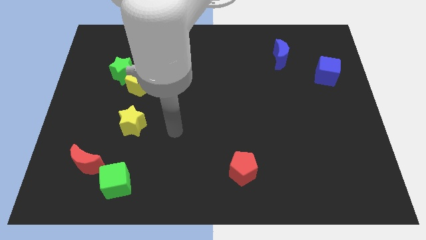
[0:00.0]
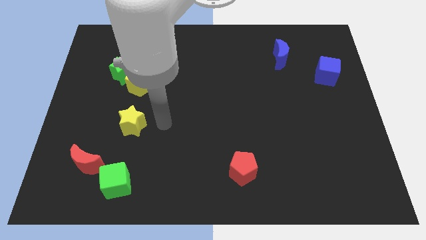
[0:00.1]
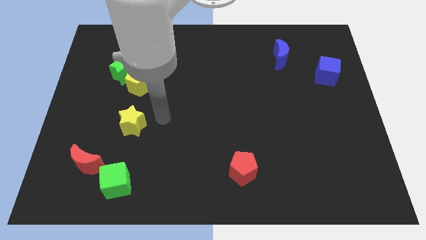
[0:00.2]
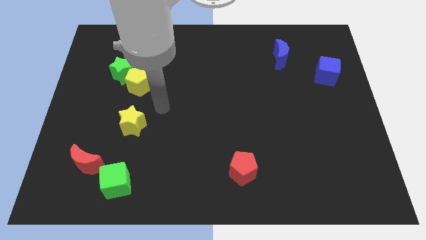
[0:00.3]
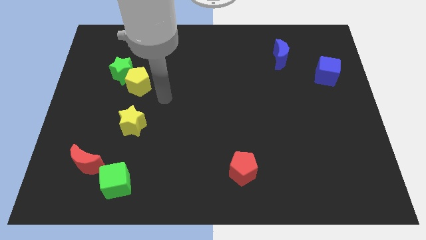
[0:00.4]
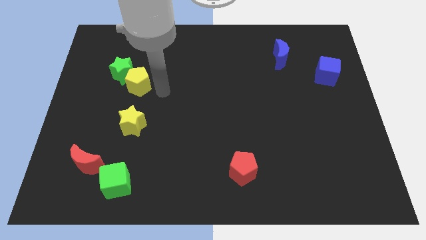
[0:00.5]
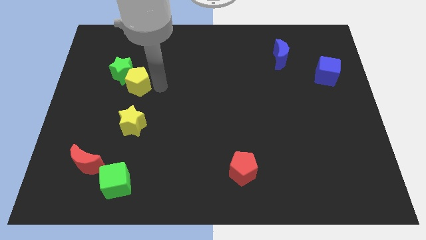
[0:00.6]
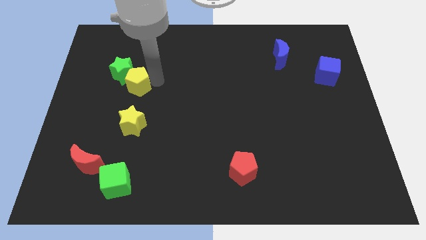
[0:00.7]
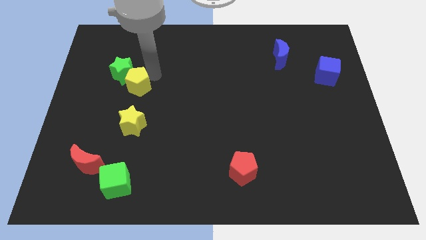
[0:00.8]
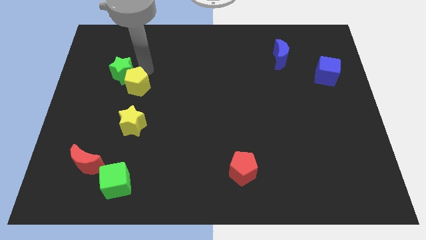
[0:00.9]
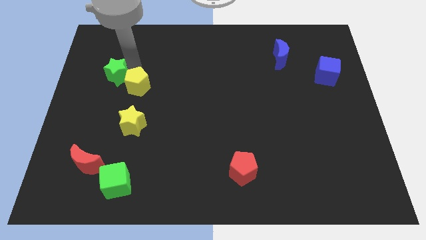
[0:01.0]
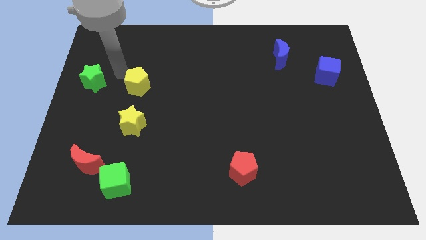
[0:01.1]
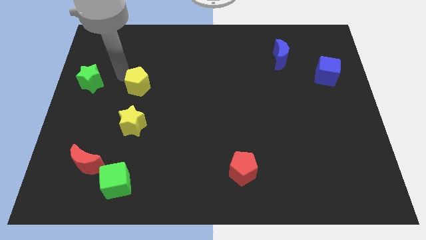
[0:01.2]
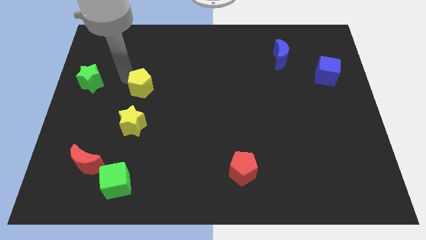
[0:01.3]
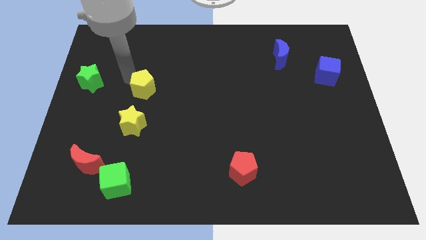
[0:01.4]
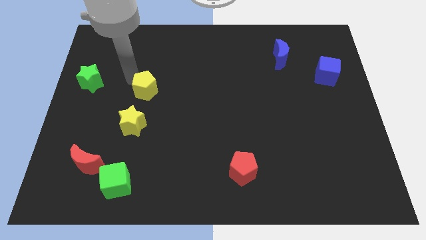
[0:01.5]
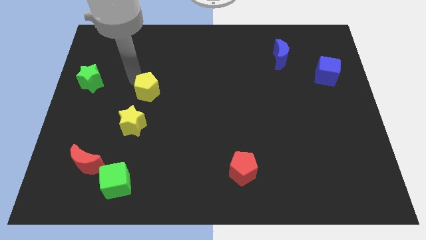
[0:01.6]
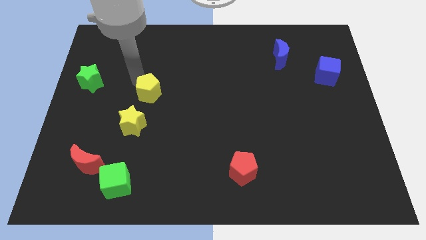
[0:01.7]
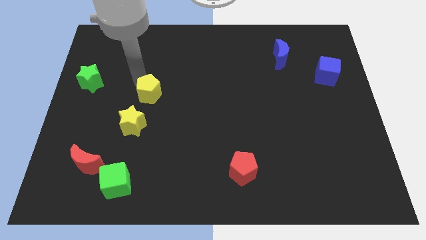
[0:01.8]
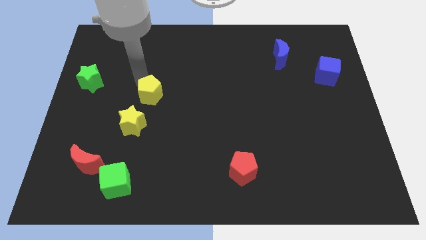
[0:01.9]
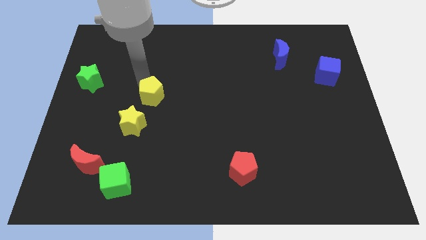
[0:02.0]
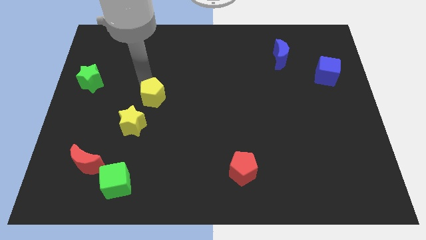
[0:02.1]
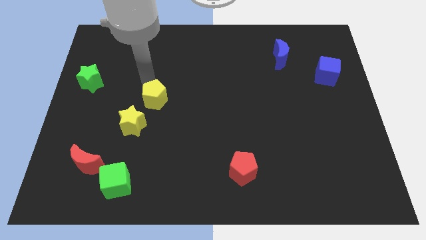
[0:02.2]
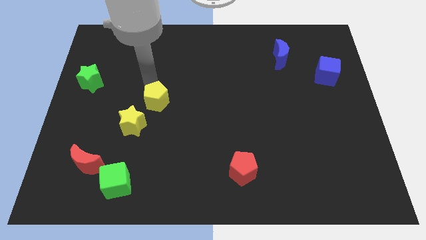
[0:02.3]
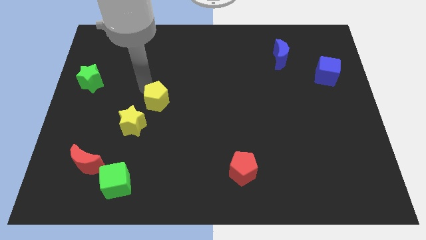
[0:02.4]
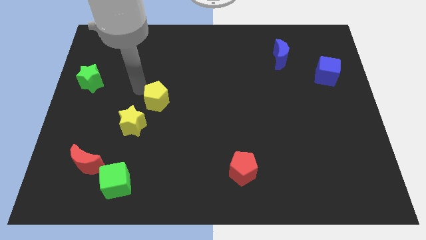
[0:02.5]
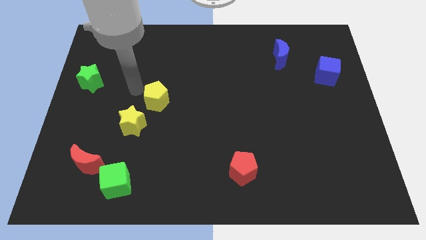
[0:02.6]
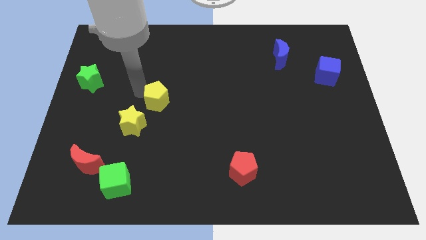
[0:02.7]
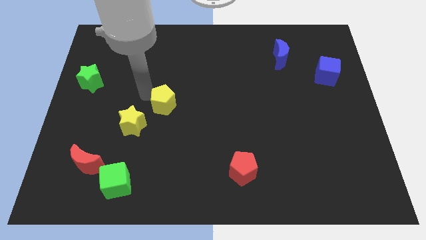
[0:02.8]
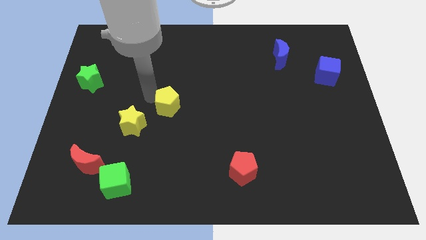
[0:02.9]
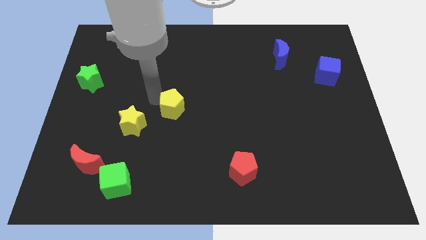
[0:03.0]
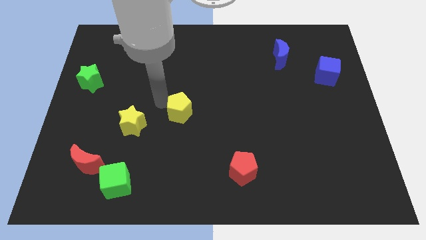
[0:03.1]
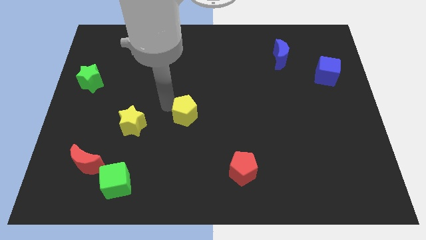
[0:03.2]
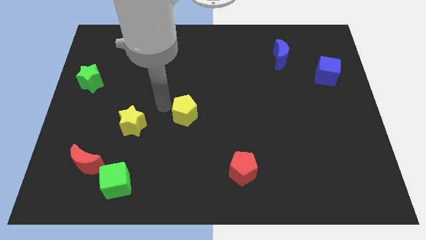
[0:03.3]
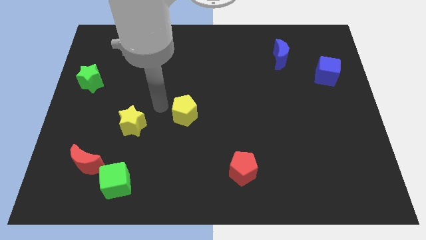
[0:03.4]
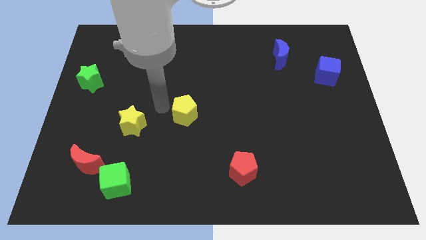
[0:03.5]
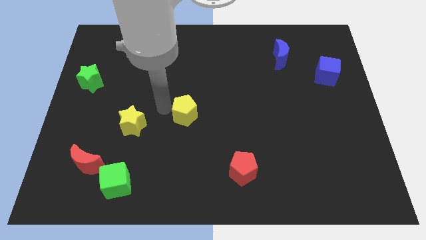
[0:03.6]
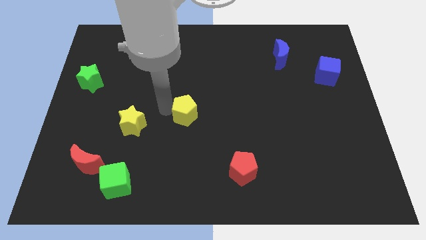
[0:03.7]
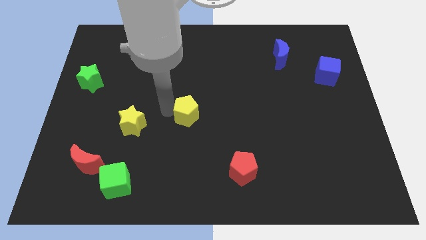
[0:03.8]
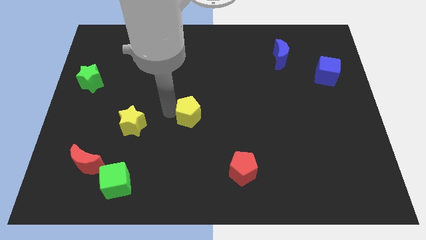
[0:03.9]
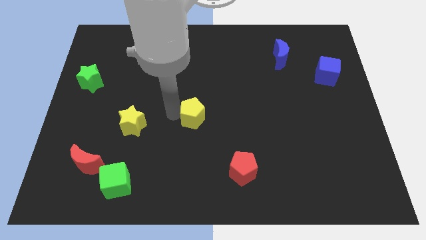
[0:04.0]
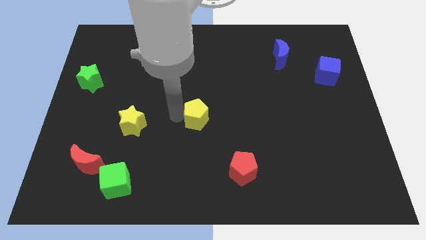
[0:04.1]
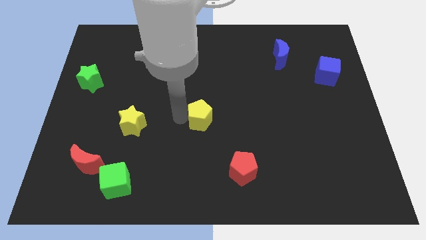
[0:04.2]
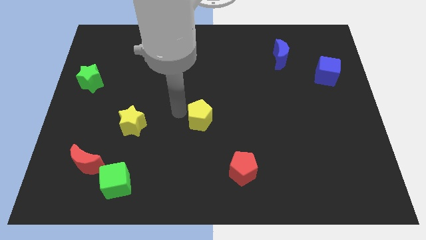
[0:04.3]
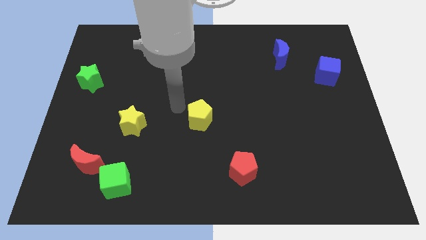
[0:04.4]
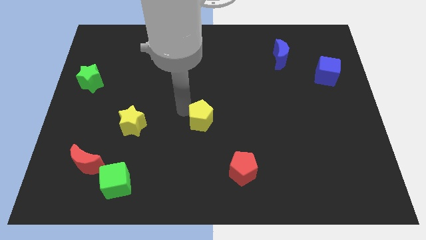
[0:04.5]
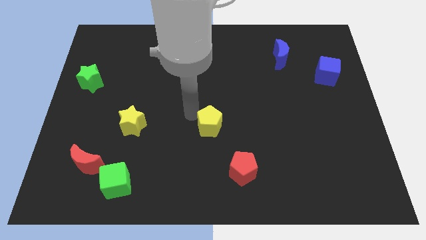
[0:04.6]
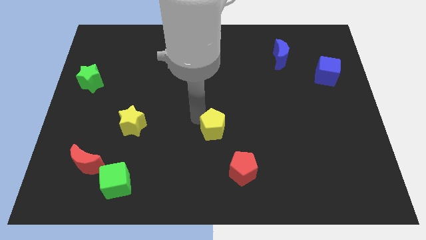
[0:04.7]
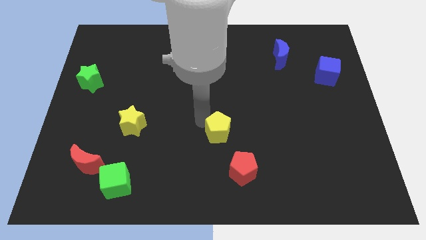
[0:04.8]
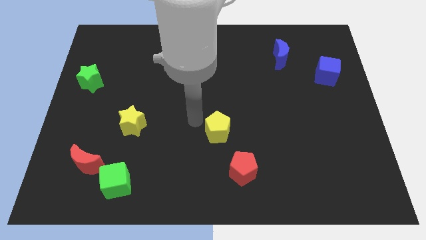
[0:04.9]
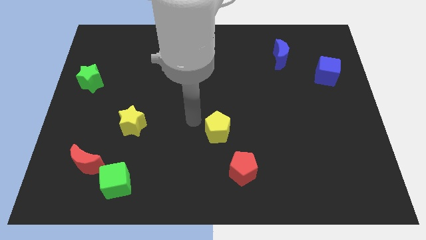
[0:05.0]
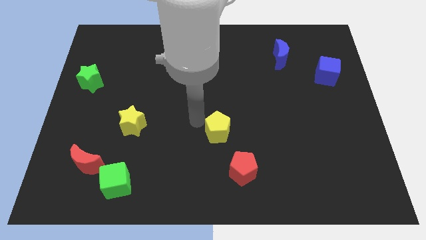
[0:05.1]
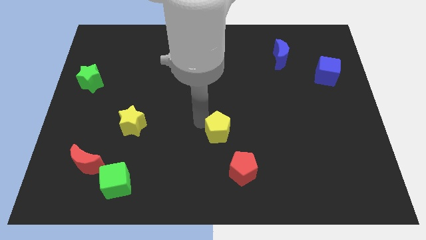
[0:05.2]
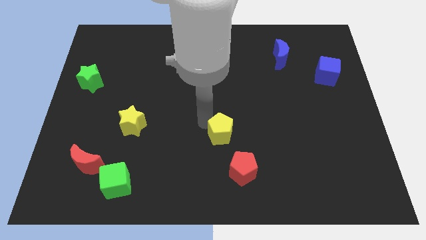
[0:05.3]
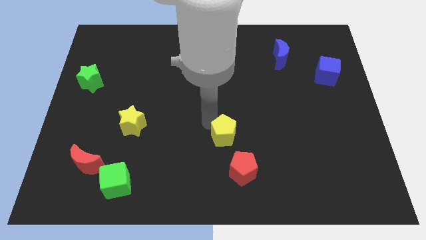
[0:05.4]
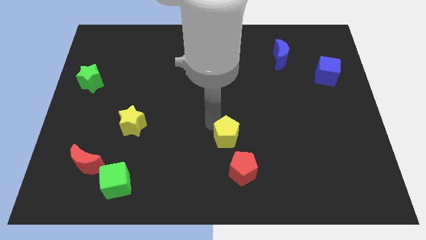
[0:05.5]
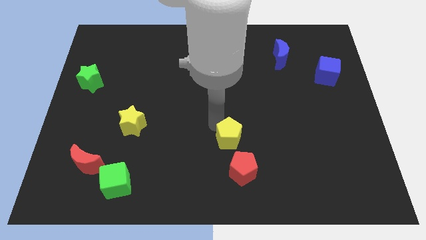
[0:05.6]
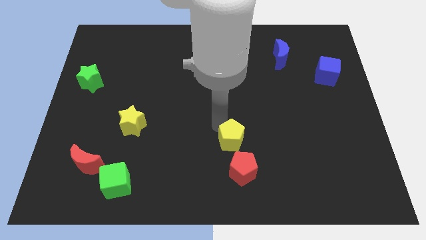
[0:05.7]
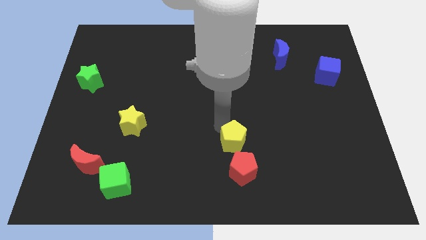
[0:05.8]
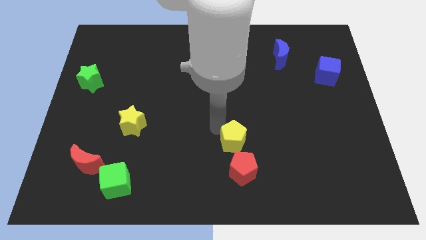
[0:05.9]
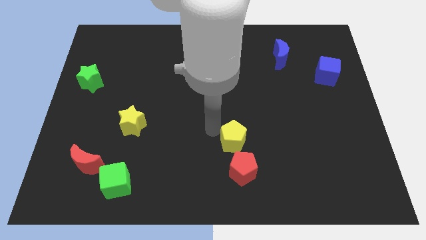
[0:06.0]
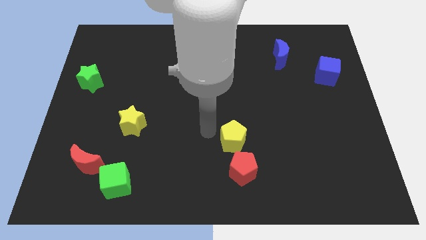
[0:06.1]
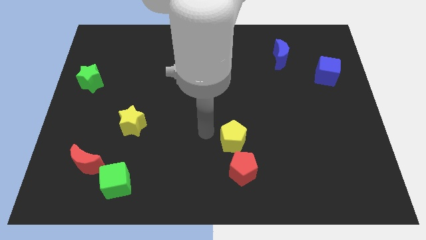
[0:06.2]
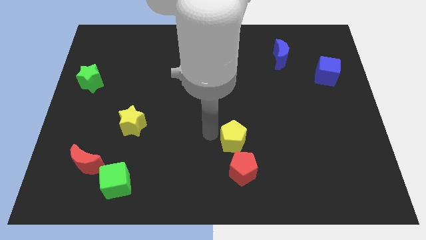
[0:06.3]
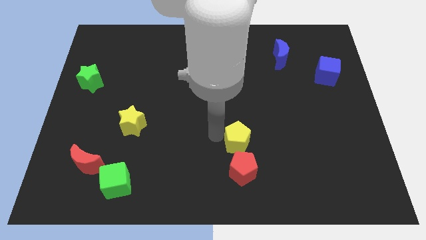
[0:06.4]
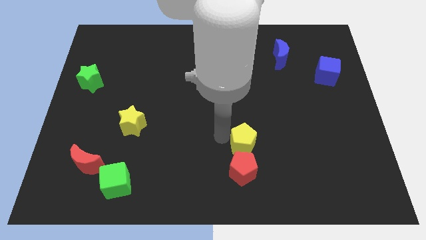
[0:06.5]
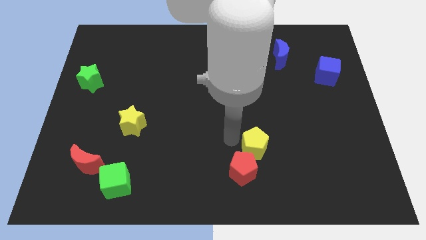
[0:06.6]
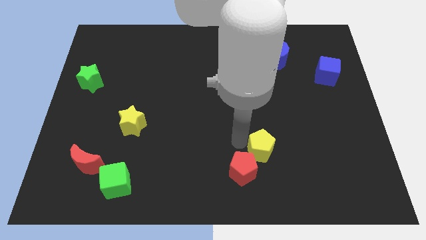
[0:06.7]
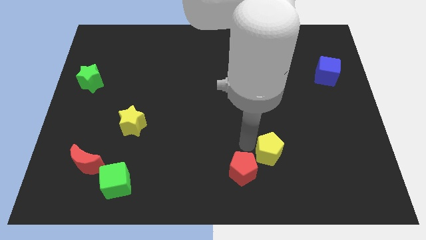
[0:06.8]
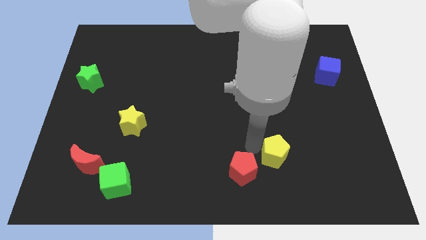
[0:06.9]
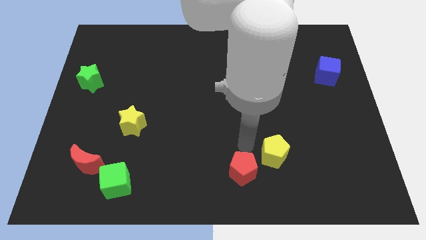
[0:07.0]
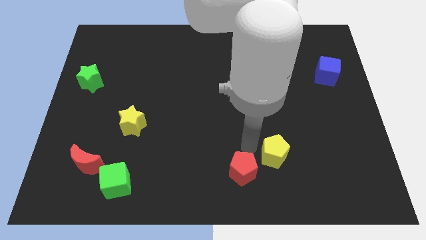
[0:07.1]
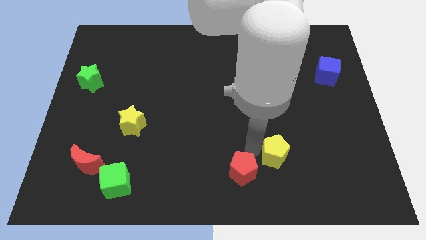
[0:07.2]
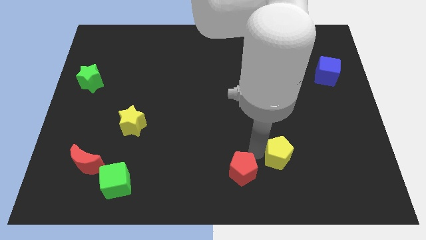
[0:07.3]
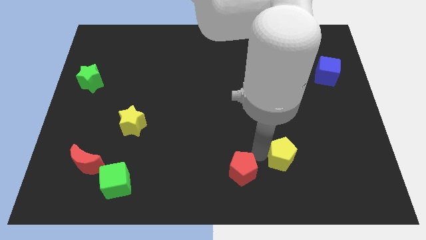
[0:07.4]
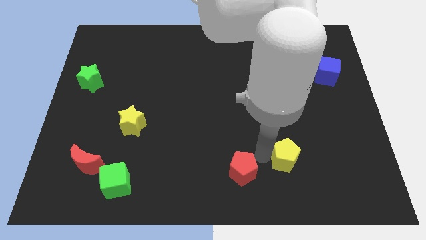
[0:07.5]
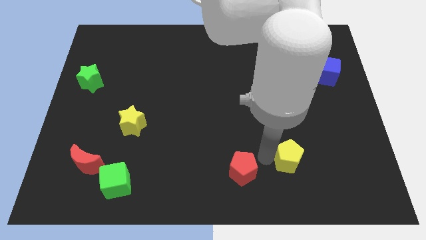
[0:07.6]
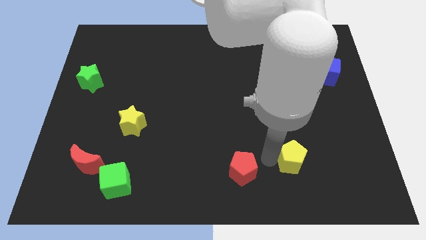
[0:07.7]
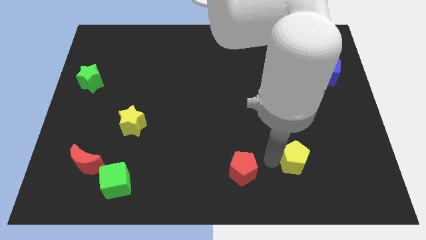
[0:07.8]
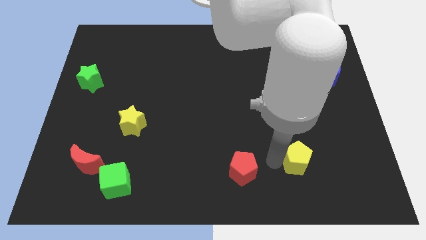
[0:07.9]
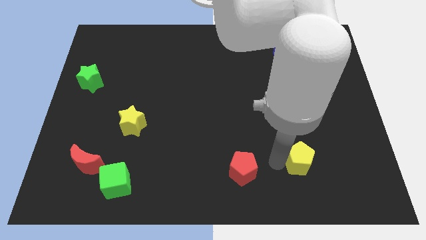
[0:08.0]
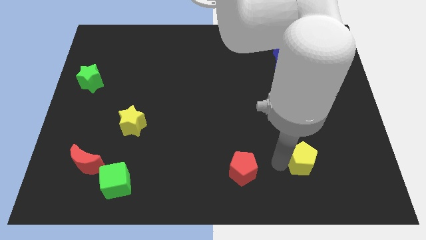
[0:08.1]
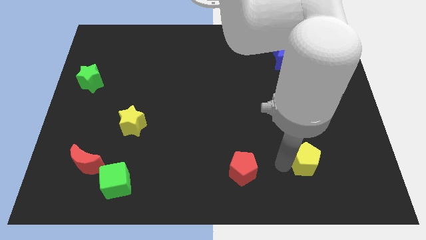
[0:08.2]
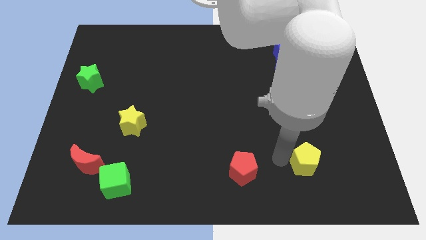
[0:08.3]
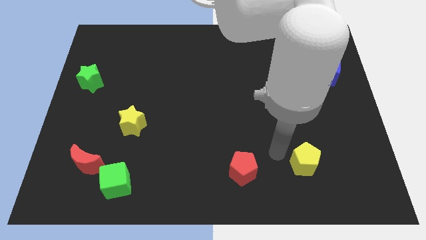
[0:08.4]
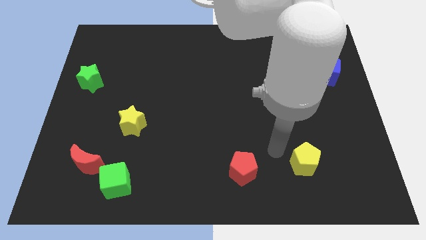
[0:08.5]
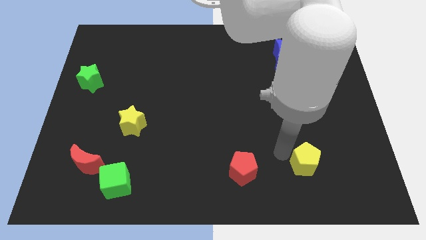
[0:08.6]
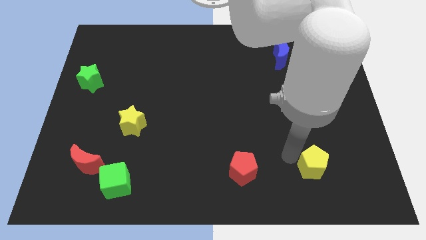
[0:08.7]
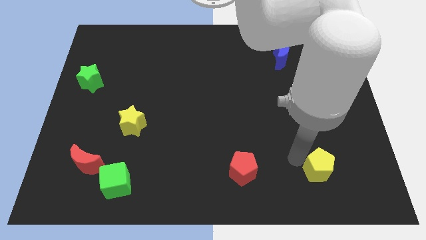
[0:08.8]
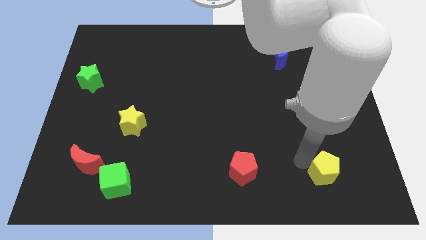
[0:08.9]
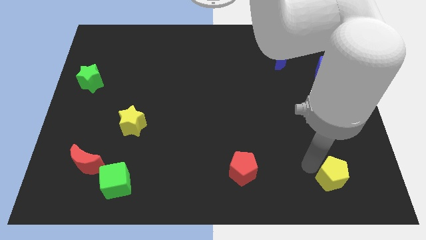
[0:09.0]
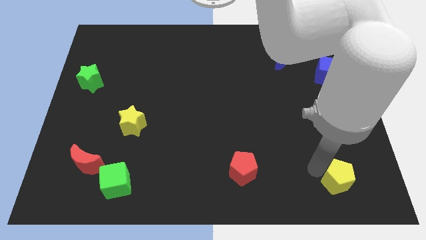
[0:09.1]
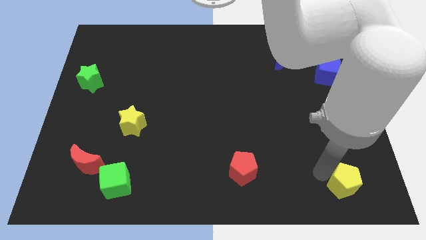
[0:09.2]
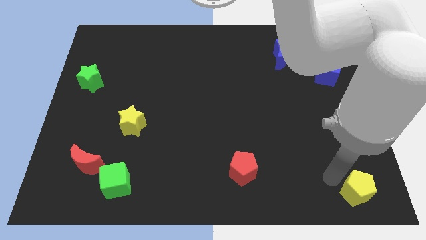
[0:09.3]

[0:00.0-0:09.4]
slide the yellow pentagon to the bottom right of the board
